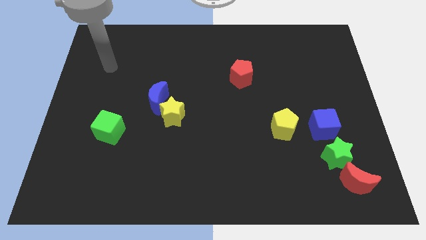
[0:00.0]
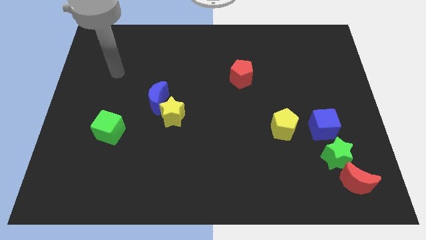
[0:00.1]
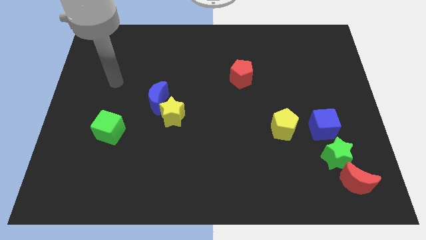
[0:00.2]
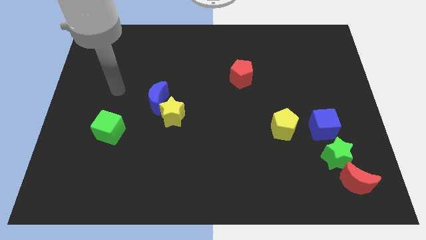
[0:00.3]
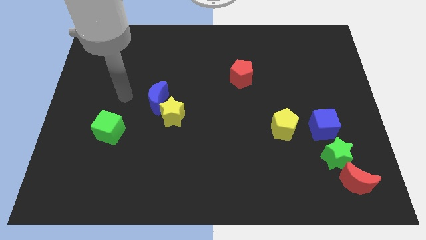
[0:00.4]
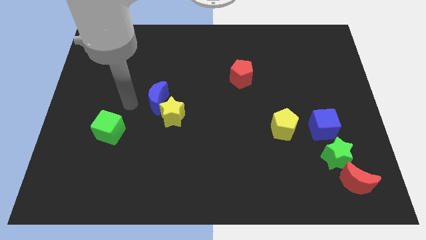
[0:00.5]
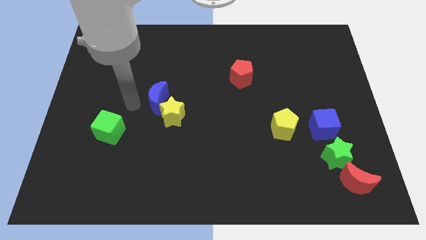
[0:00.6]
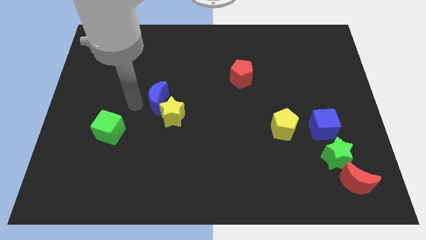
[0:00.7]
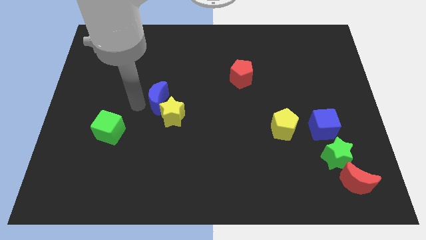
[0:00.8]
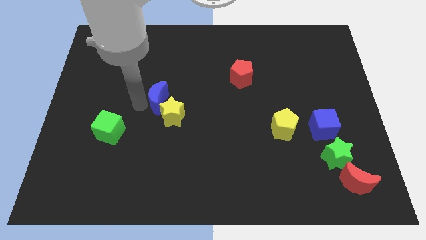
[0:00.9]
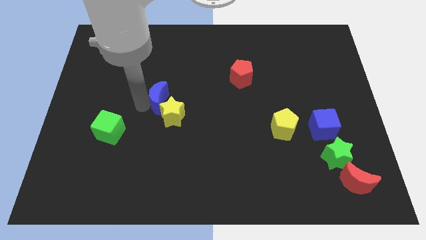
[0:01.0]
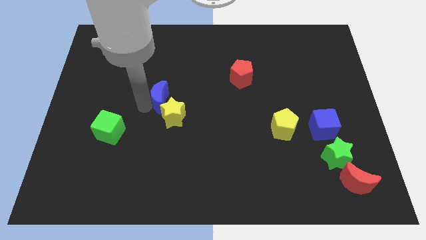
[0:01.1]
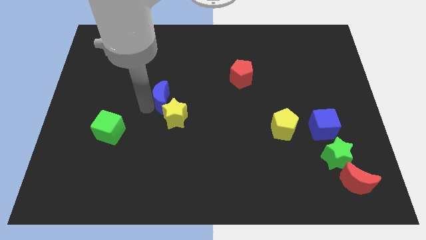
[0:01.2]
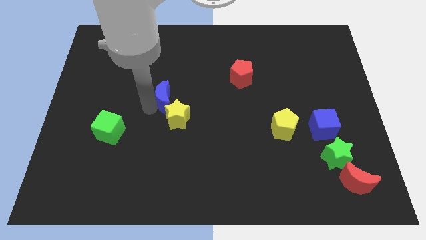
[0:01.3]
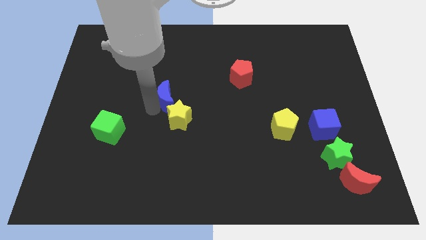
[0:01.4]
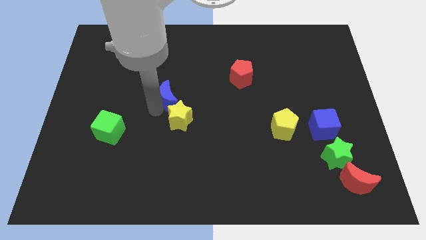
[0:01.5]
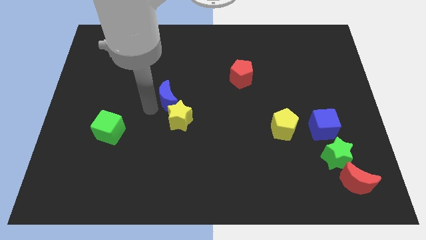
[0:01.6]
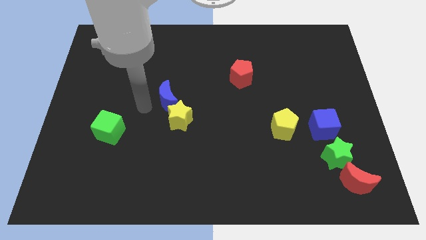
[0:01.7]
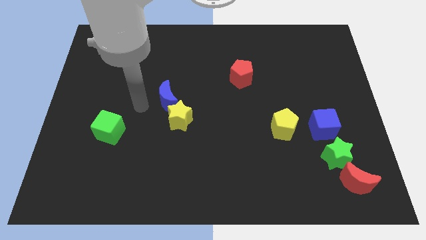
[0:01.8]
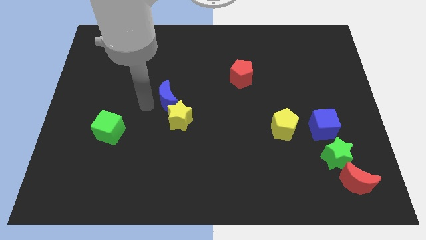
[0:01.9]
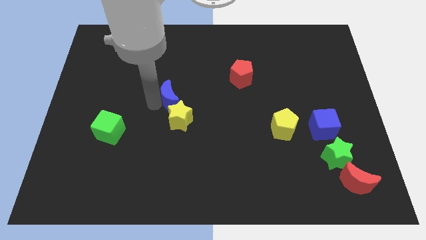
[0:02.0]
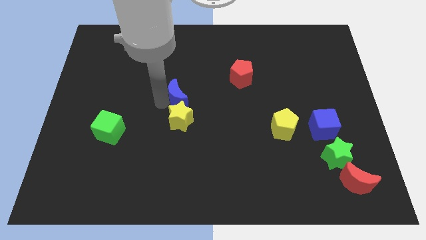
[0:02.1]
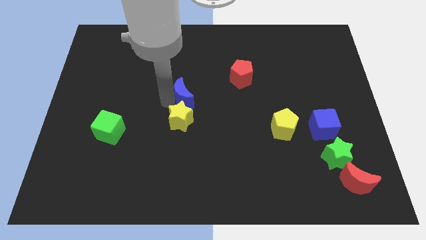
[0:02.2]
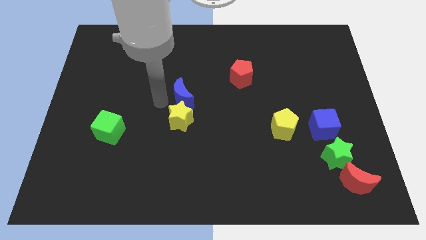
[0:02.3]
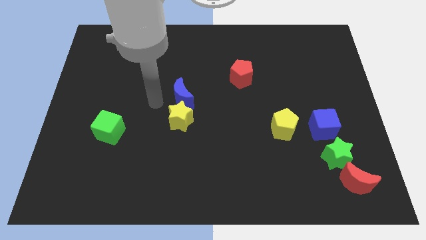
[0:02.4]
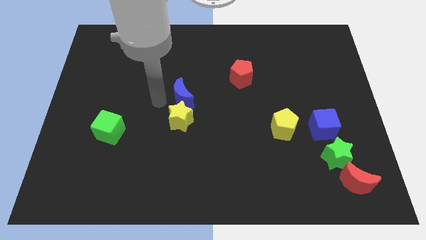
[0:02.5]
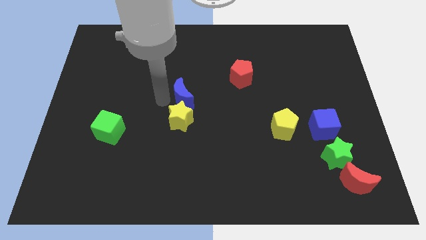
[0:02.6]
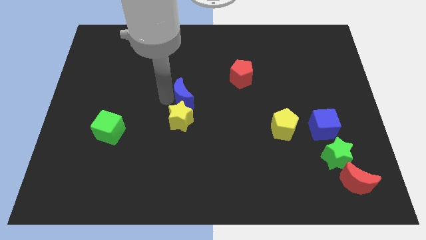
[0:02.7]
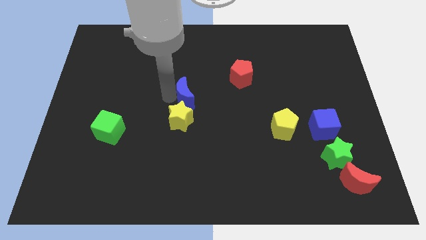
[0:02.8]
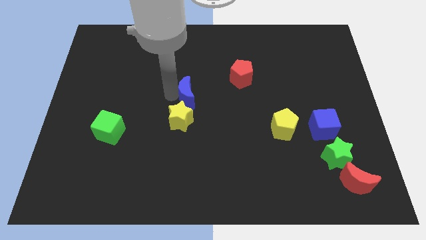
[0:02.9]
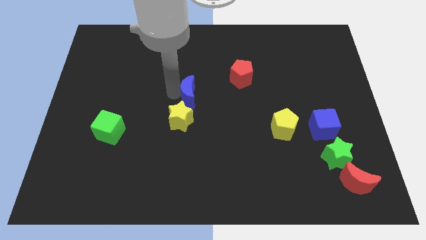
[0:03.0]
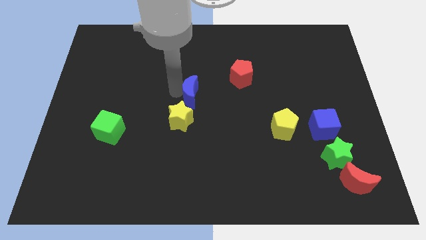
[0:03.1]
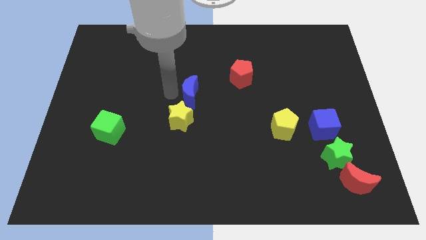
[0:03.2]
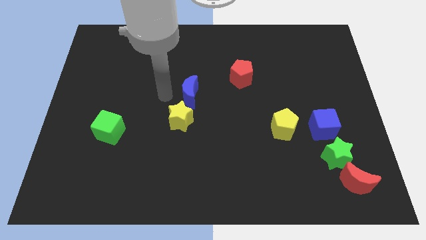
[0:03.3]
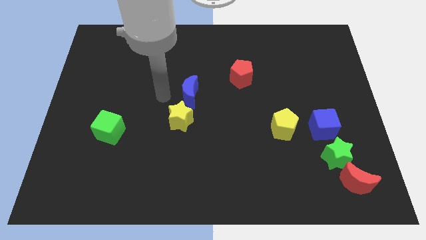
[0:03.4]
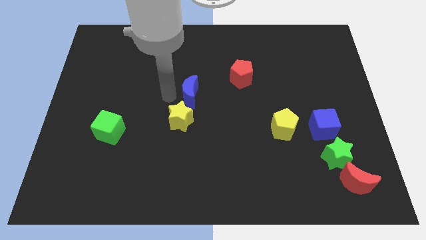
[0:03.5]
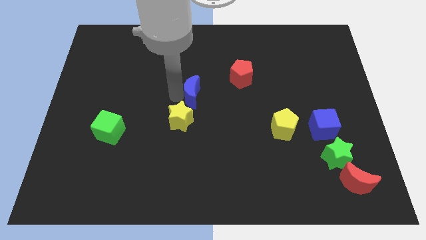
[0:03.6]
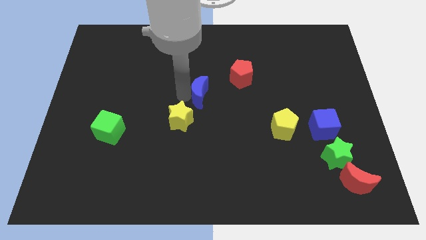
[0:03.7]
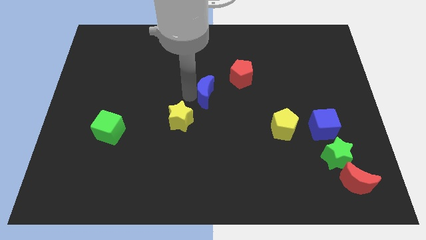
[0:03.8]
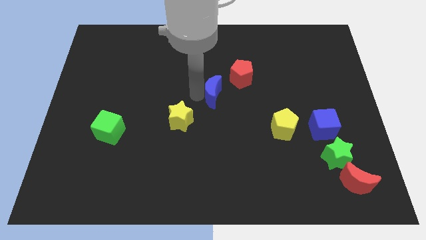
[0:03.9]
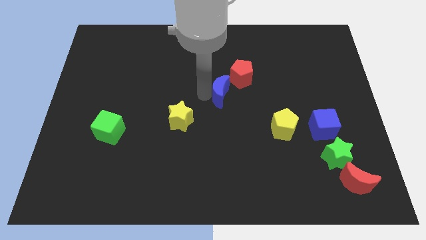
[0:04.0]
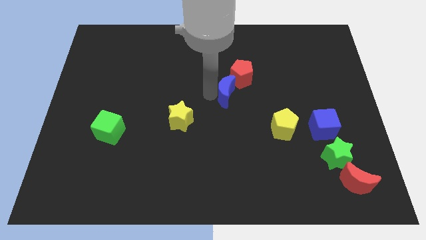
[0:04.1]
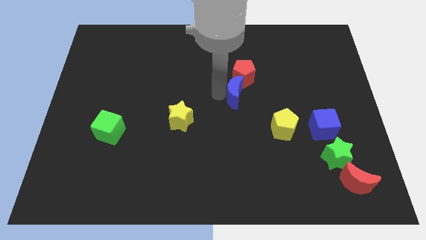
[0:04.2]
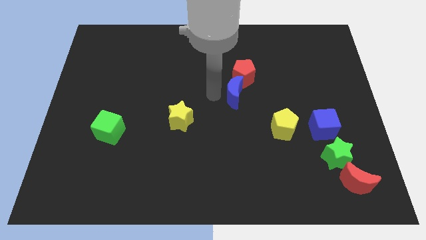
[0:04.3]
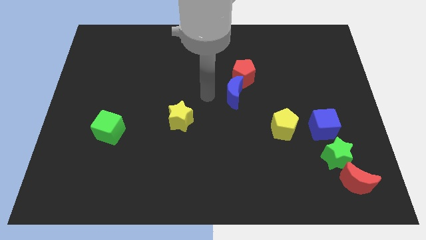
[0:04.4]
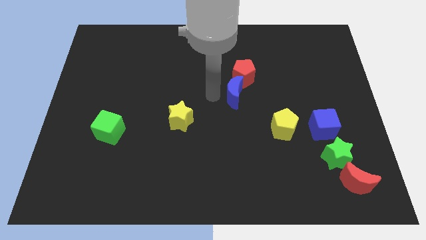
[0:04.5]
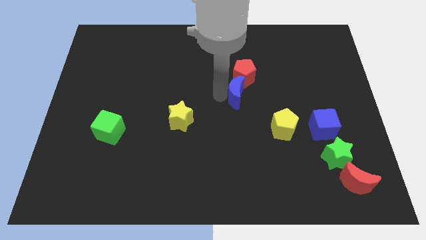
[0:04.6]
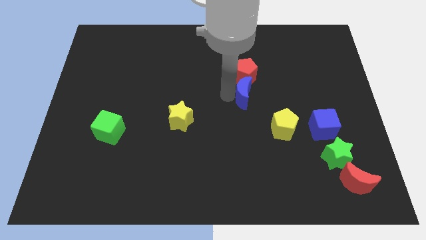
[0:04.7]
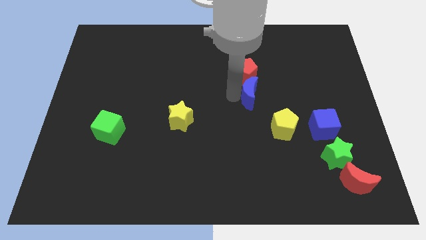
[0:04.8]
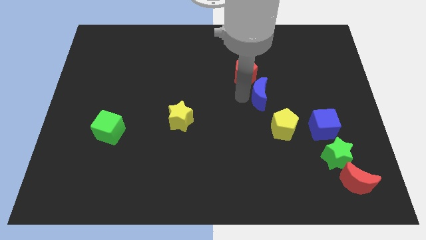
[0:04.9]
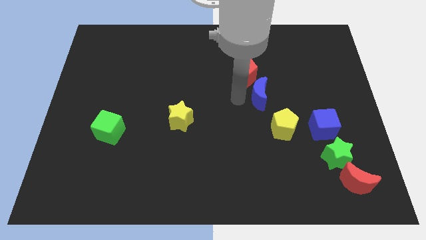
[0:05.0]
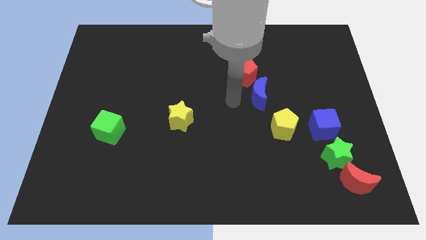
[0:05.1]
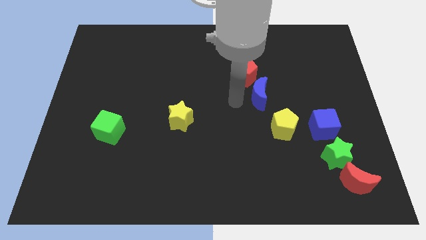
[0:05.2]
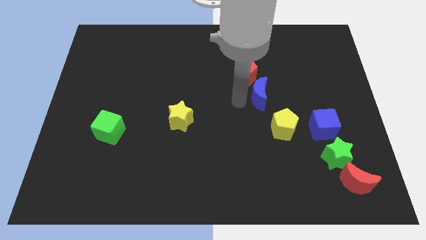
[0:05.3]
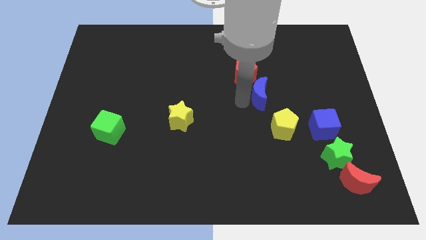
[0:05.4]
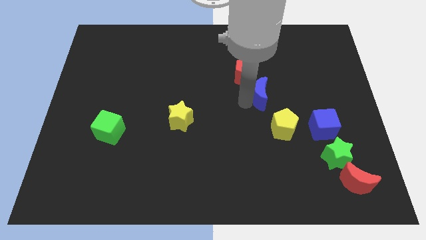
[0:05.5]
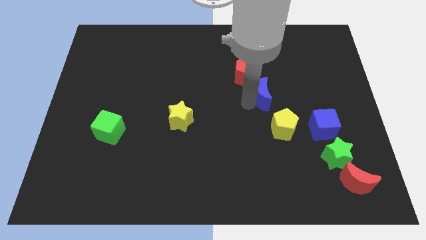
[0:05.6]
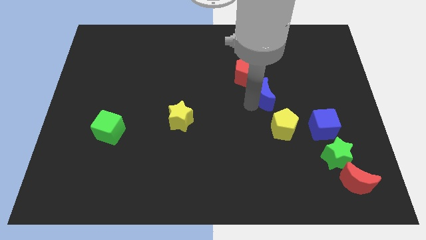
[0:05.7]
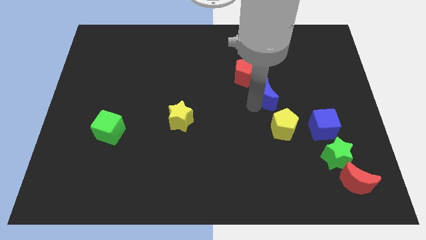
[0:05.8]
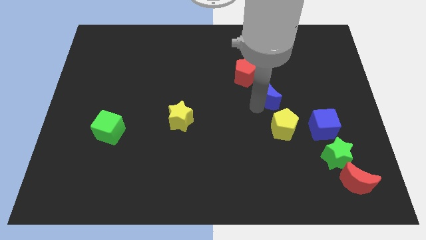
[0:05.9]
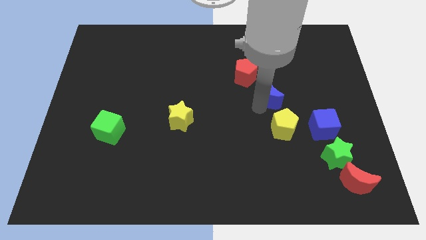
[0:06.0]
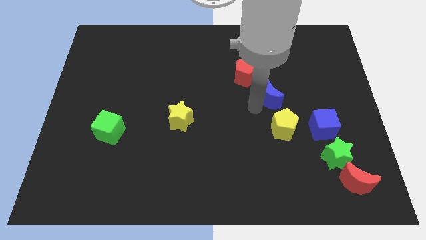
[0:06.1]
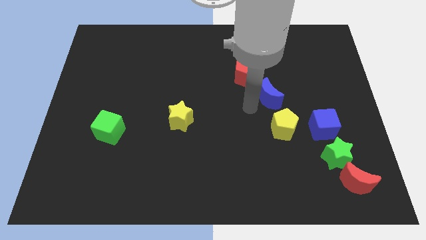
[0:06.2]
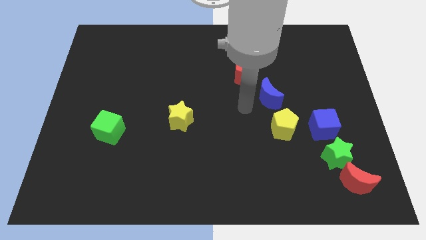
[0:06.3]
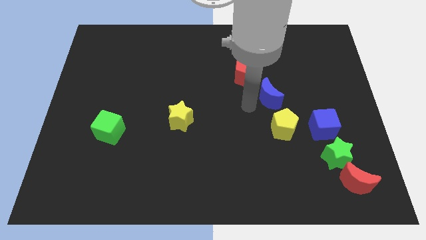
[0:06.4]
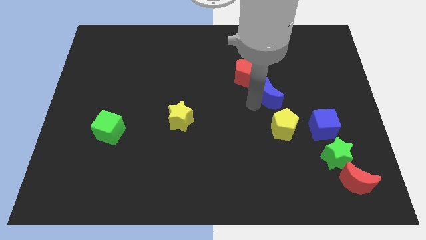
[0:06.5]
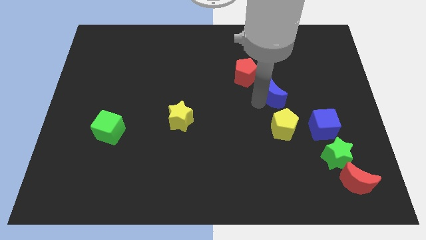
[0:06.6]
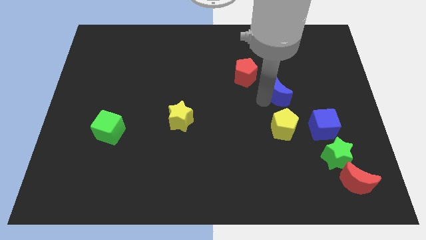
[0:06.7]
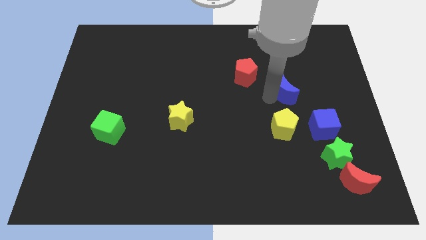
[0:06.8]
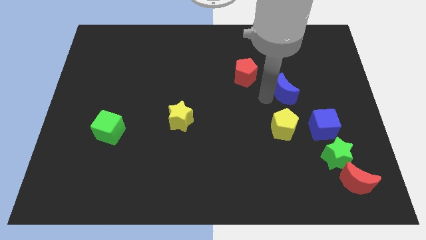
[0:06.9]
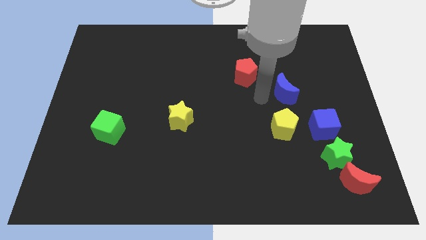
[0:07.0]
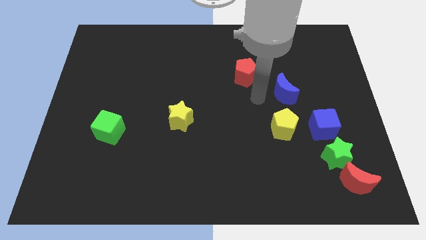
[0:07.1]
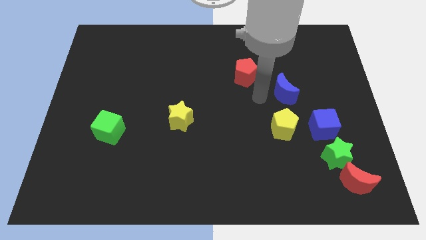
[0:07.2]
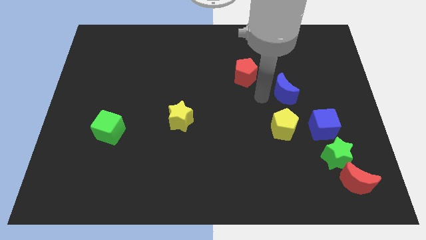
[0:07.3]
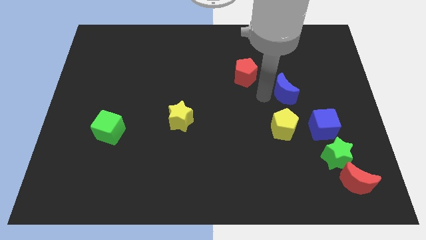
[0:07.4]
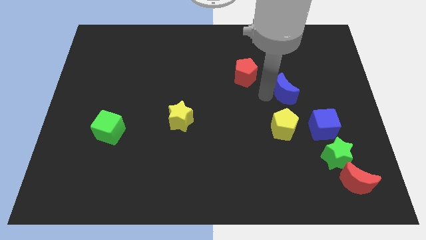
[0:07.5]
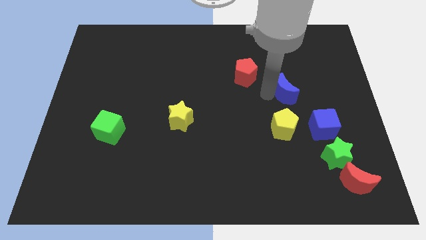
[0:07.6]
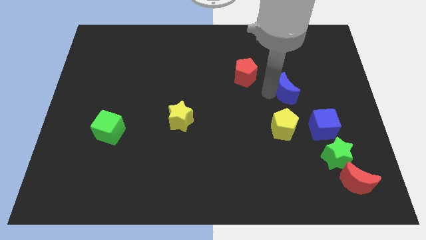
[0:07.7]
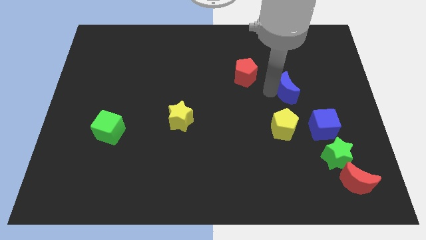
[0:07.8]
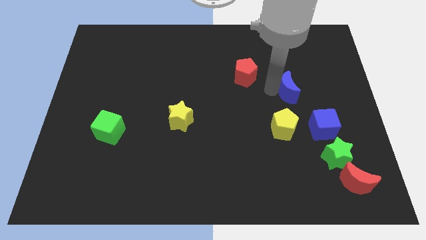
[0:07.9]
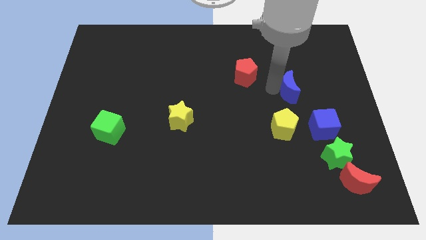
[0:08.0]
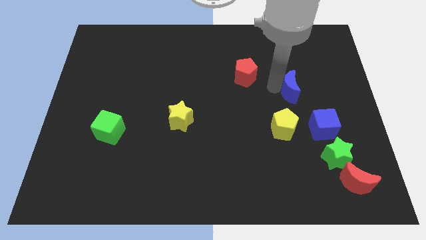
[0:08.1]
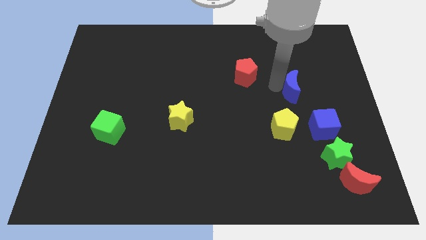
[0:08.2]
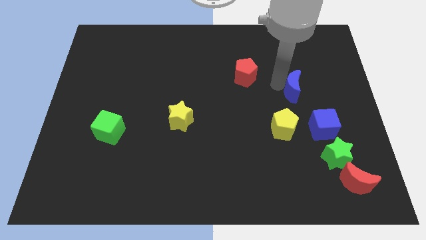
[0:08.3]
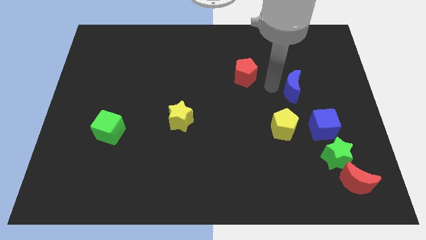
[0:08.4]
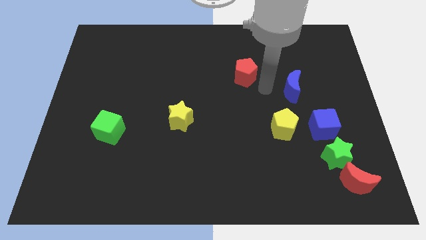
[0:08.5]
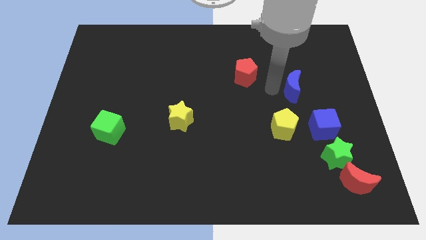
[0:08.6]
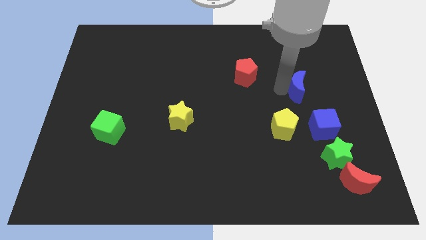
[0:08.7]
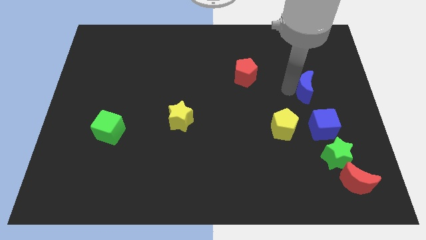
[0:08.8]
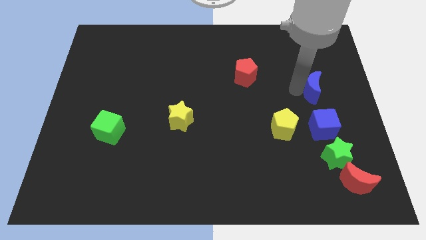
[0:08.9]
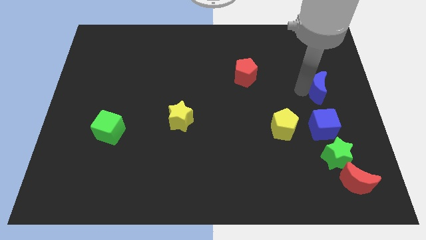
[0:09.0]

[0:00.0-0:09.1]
slide the blue moon to the center right
